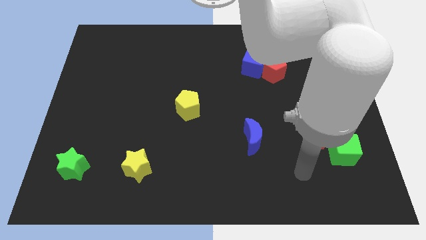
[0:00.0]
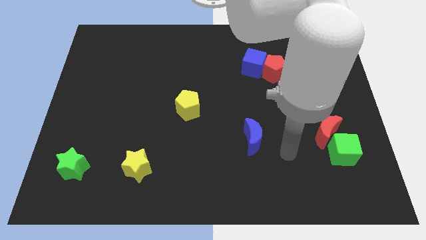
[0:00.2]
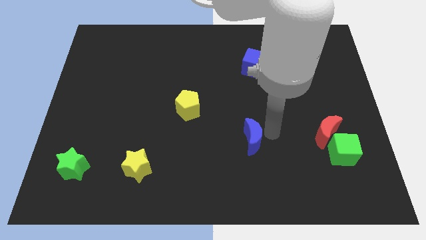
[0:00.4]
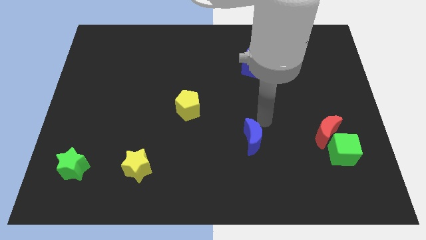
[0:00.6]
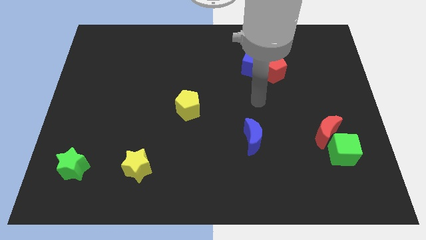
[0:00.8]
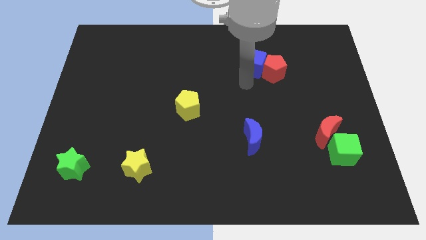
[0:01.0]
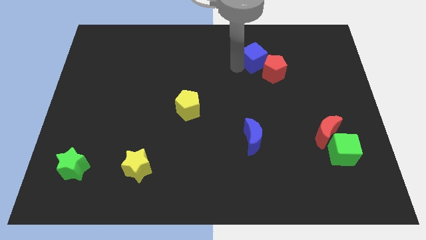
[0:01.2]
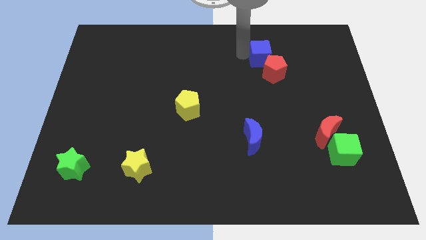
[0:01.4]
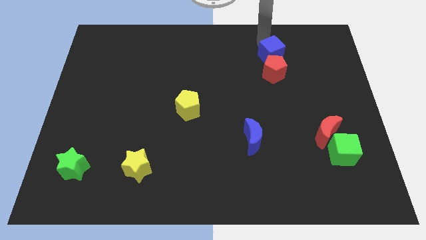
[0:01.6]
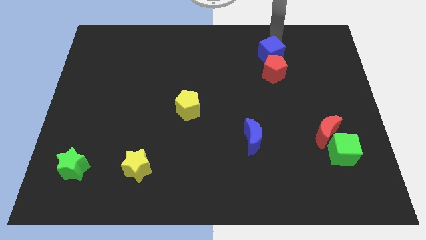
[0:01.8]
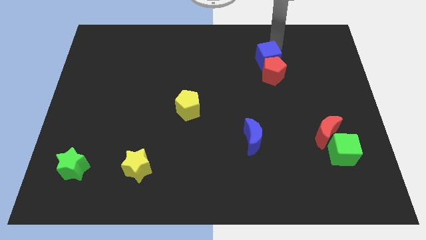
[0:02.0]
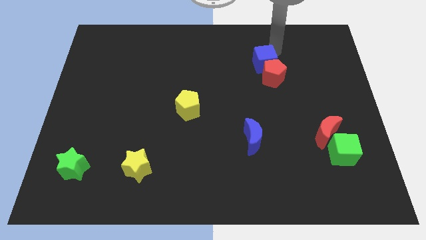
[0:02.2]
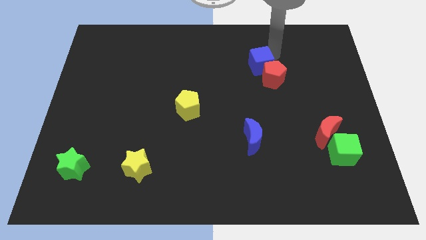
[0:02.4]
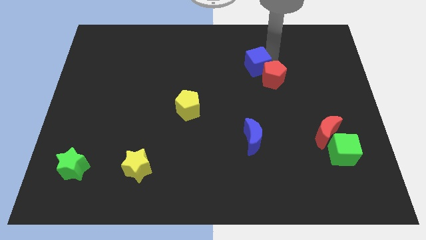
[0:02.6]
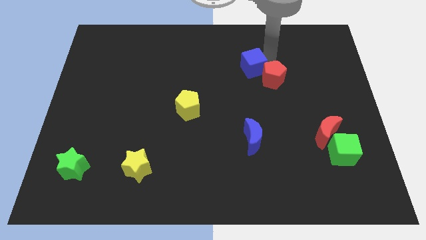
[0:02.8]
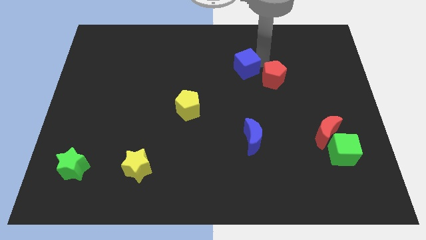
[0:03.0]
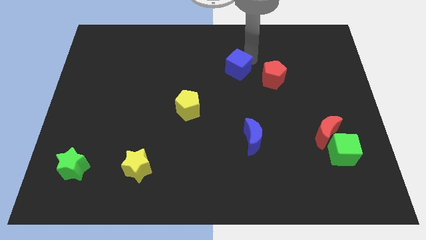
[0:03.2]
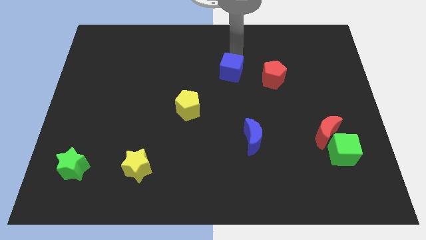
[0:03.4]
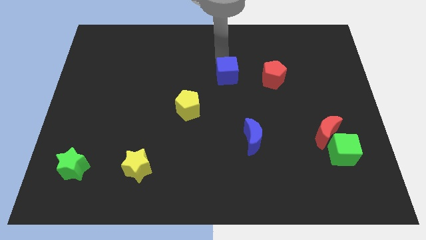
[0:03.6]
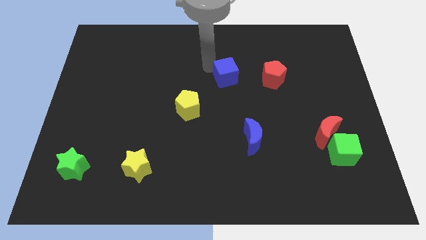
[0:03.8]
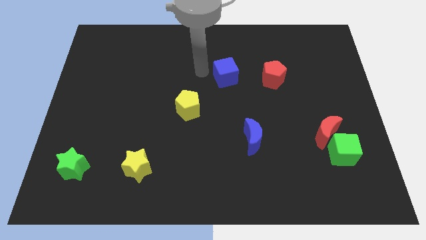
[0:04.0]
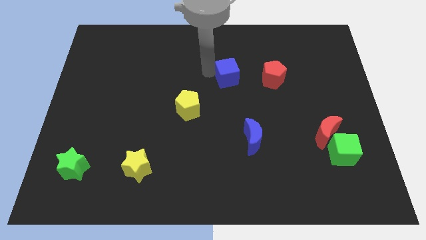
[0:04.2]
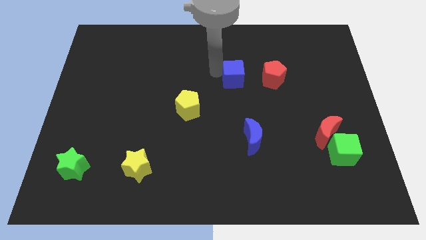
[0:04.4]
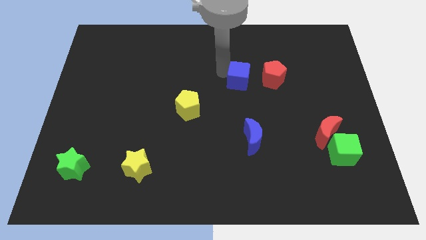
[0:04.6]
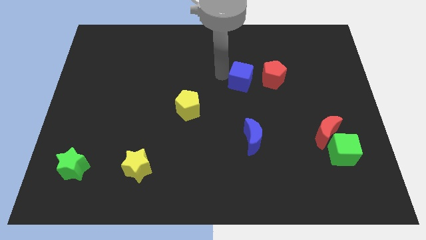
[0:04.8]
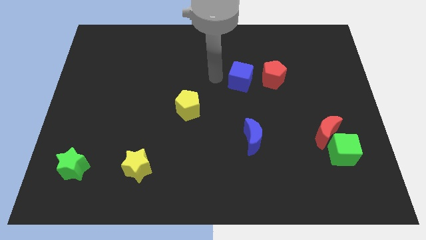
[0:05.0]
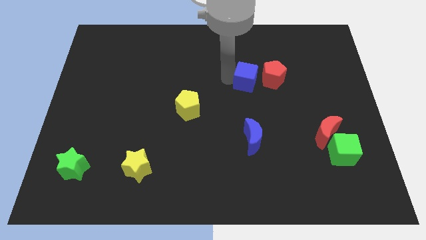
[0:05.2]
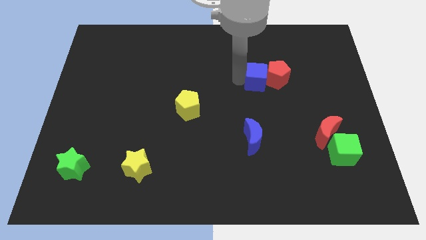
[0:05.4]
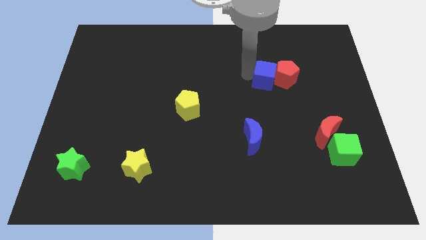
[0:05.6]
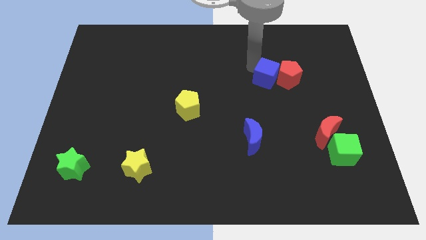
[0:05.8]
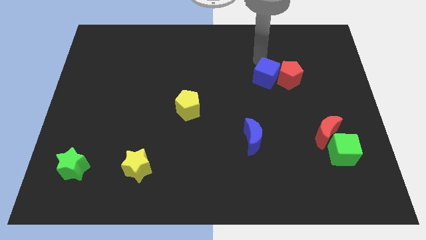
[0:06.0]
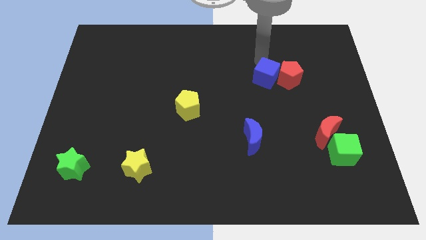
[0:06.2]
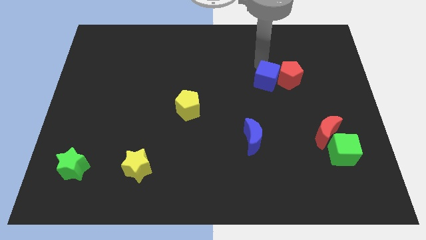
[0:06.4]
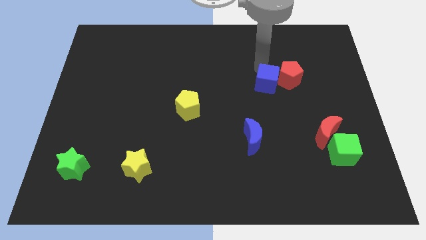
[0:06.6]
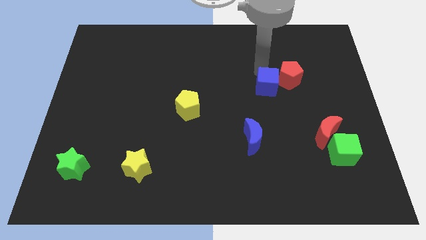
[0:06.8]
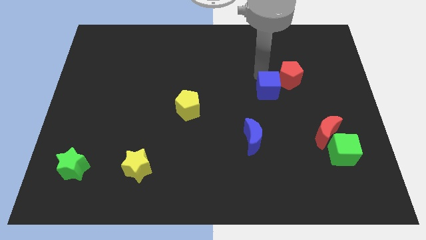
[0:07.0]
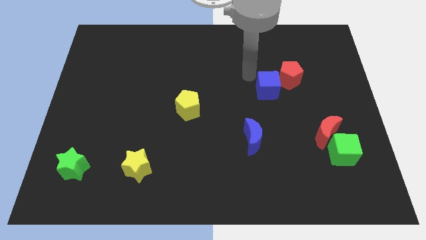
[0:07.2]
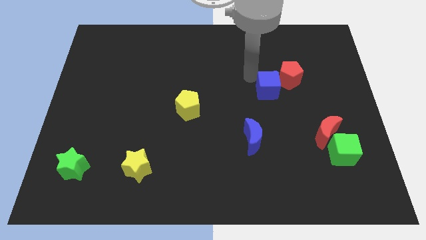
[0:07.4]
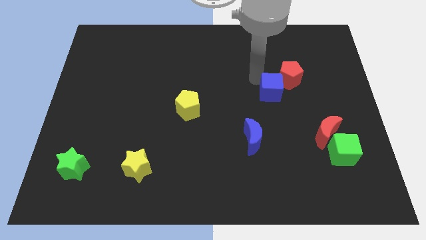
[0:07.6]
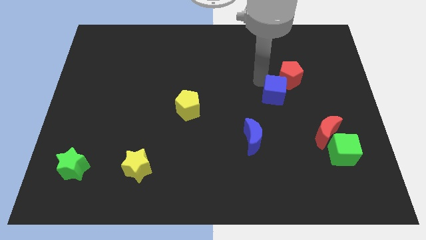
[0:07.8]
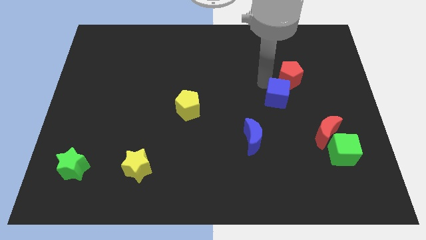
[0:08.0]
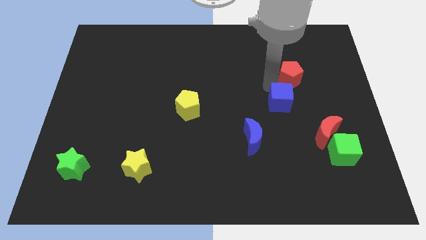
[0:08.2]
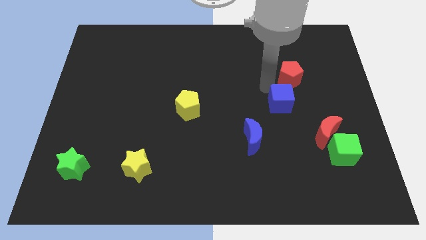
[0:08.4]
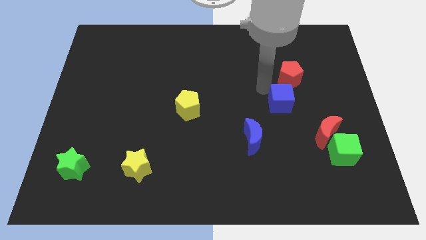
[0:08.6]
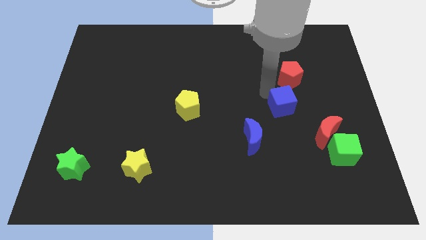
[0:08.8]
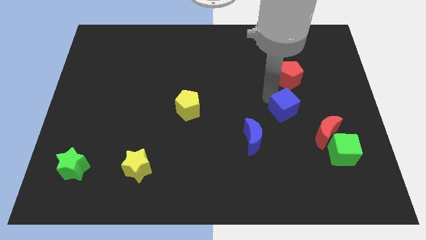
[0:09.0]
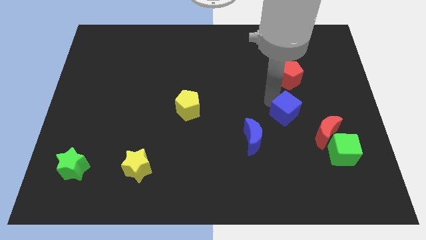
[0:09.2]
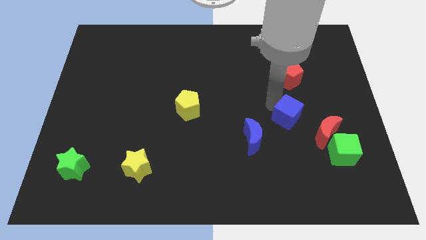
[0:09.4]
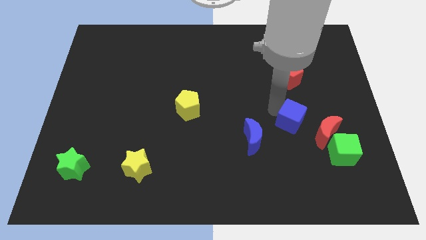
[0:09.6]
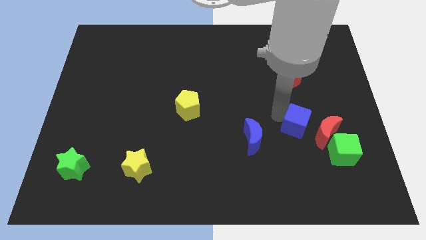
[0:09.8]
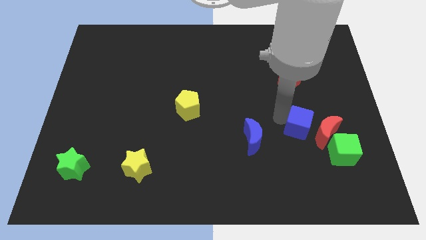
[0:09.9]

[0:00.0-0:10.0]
move the blue cube next to the red moon

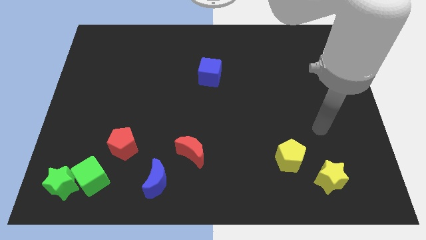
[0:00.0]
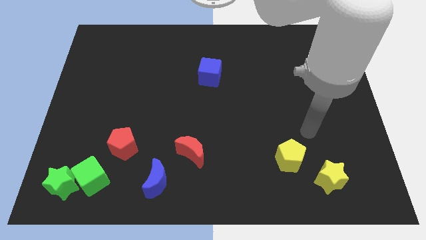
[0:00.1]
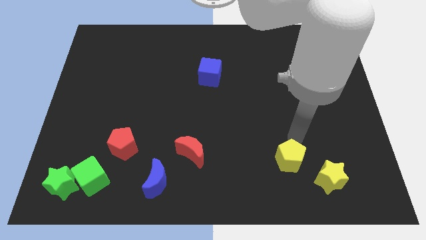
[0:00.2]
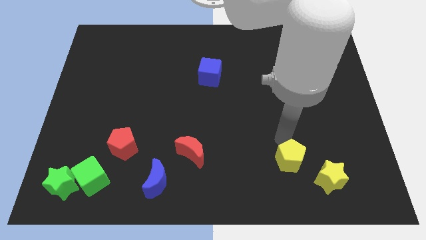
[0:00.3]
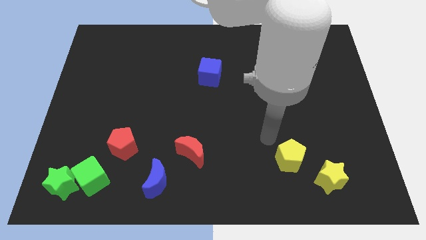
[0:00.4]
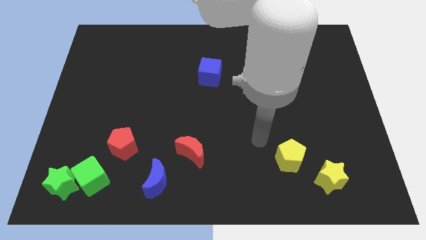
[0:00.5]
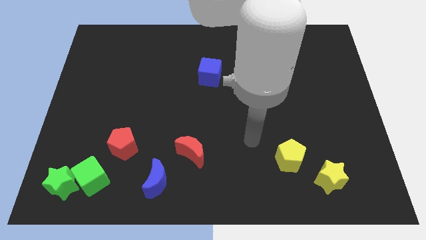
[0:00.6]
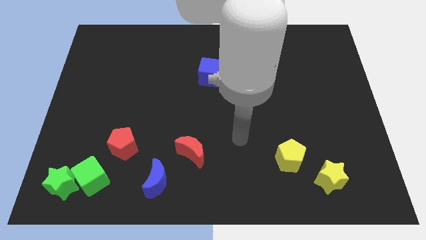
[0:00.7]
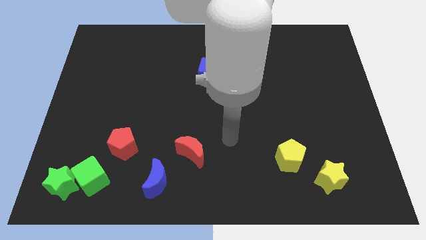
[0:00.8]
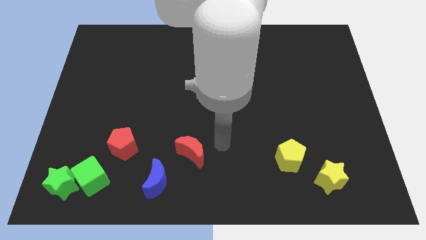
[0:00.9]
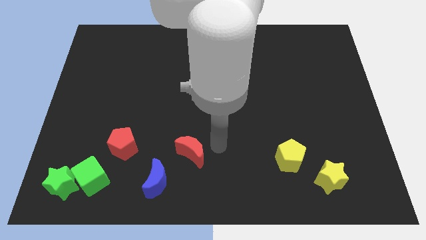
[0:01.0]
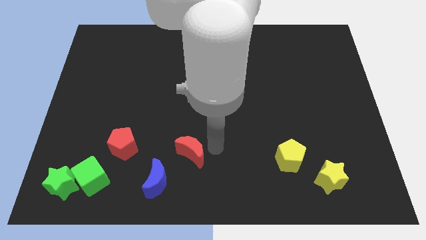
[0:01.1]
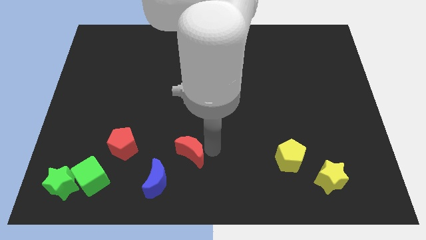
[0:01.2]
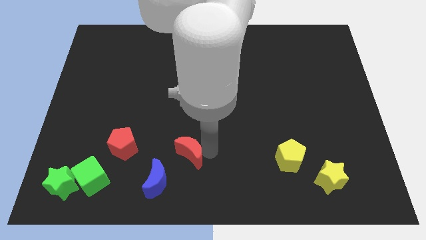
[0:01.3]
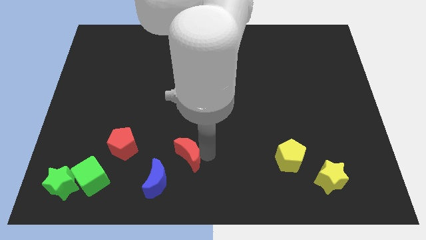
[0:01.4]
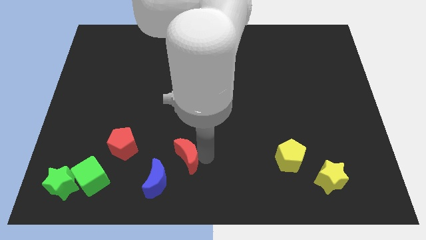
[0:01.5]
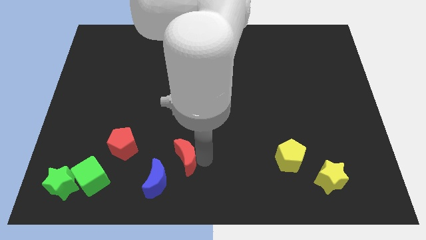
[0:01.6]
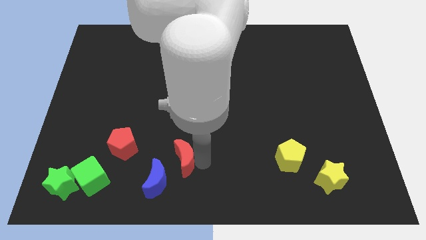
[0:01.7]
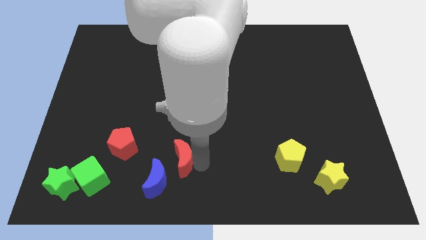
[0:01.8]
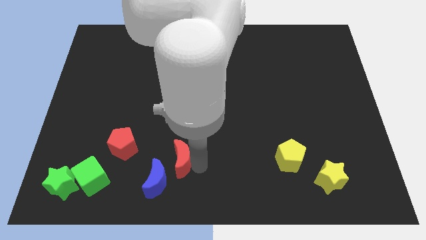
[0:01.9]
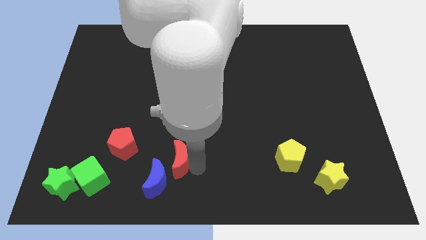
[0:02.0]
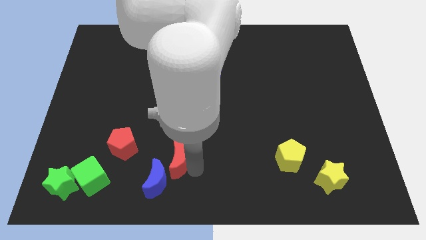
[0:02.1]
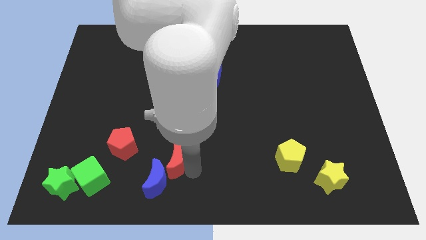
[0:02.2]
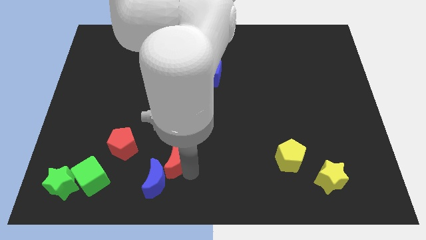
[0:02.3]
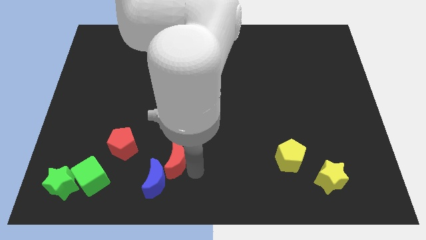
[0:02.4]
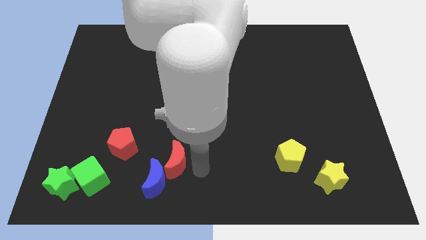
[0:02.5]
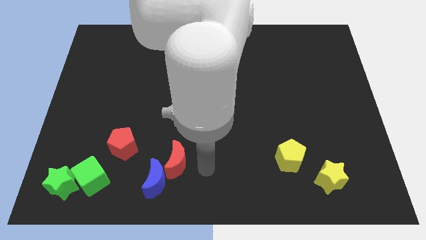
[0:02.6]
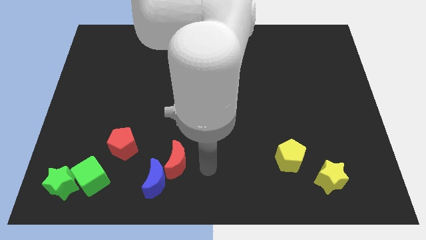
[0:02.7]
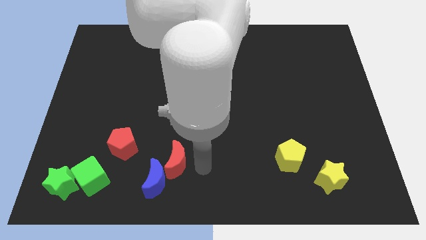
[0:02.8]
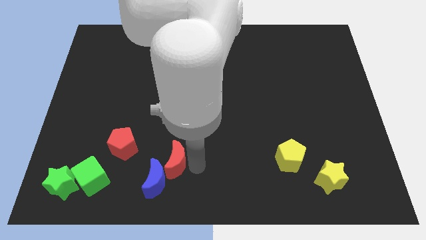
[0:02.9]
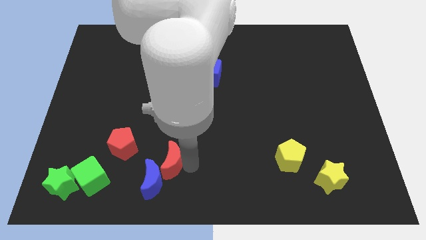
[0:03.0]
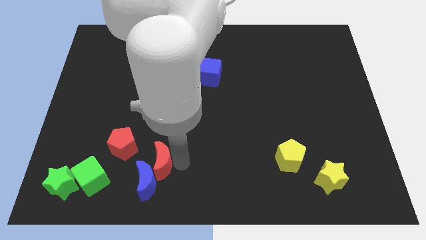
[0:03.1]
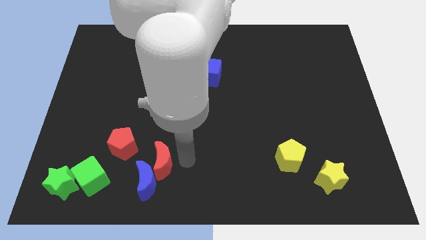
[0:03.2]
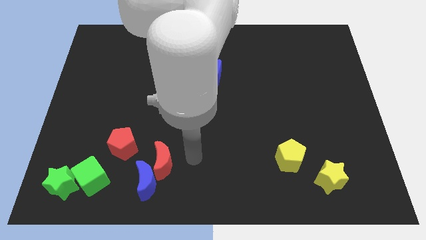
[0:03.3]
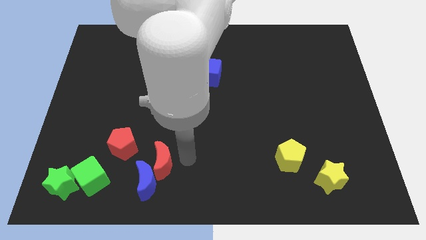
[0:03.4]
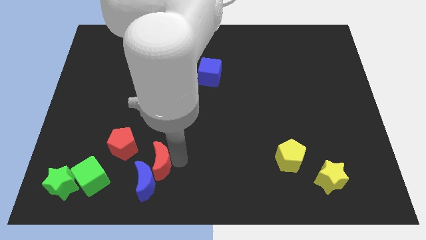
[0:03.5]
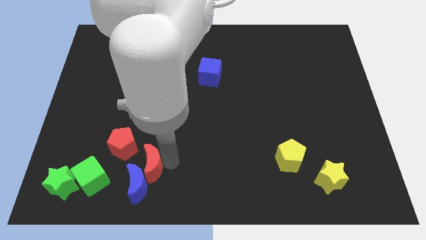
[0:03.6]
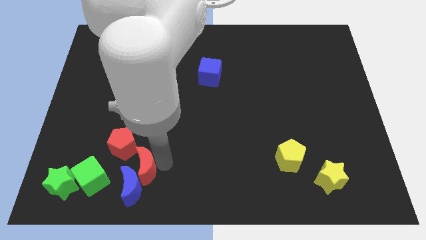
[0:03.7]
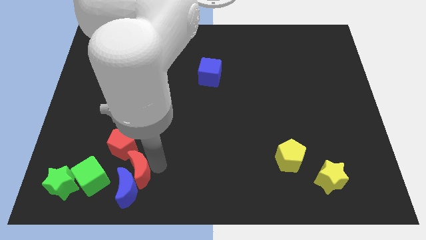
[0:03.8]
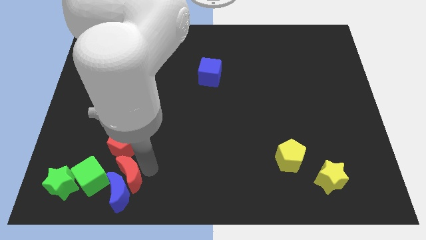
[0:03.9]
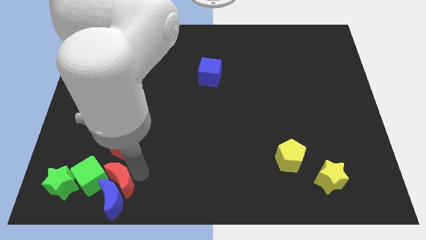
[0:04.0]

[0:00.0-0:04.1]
move the red moon towards the green cube
